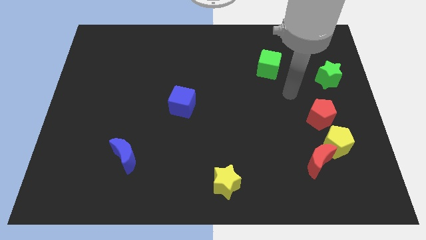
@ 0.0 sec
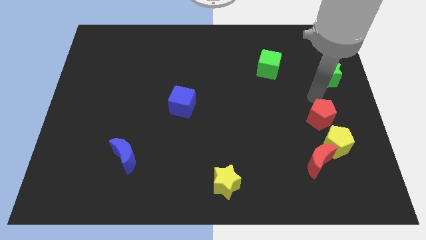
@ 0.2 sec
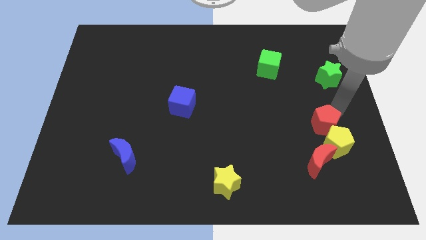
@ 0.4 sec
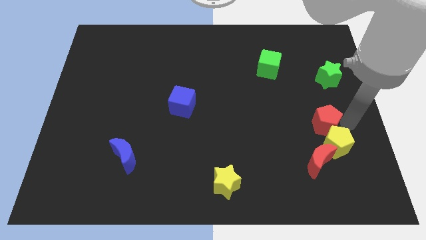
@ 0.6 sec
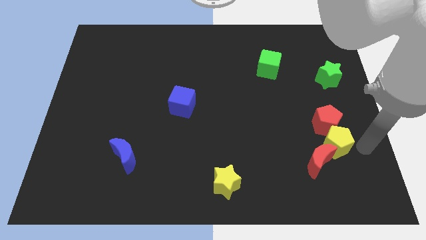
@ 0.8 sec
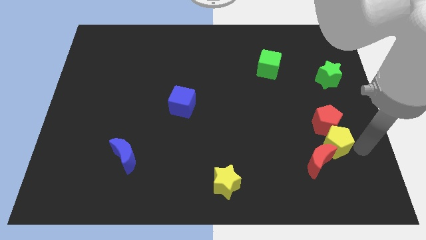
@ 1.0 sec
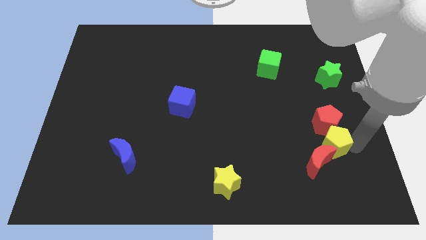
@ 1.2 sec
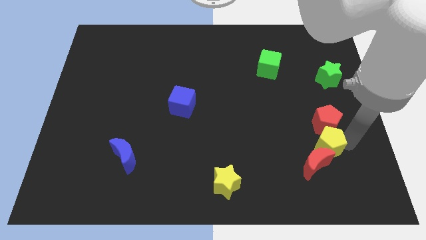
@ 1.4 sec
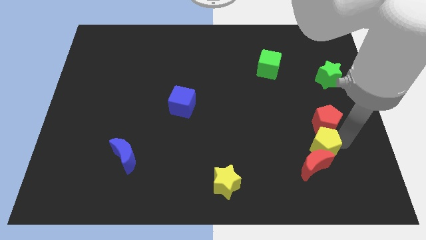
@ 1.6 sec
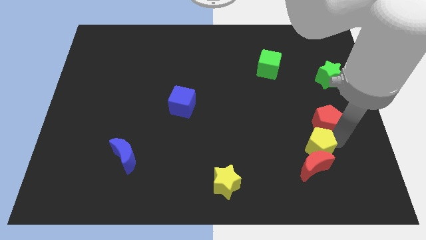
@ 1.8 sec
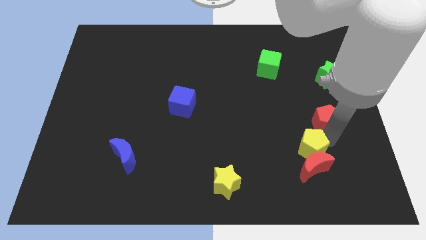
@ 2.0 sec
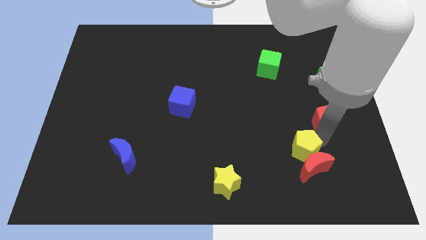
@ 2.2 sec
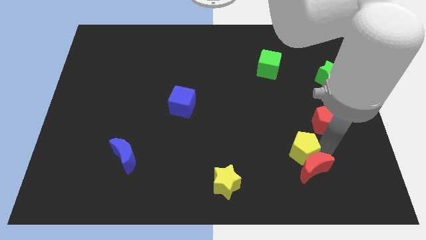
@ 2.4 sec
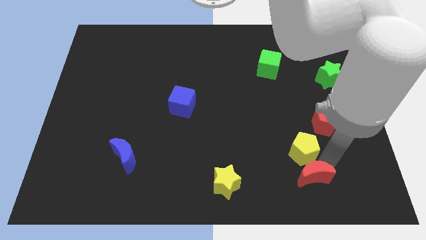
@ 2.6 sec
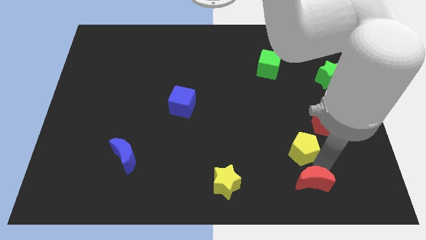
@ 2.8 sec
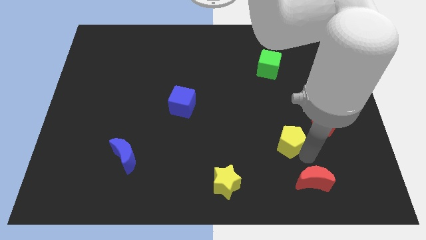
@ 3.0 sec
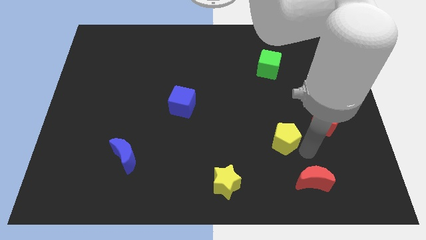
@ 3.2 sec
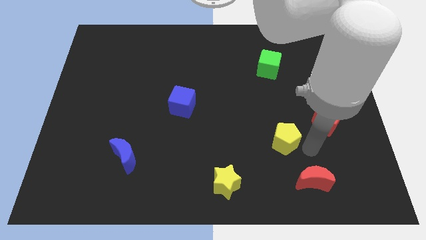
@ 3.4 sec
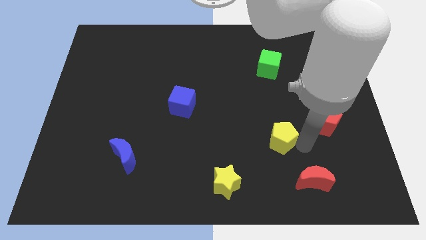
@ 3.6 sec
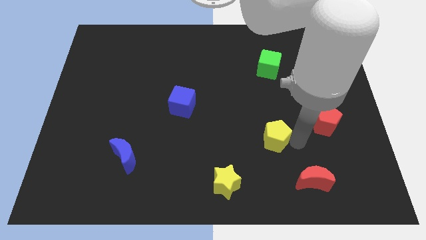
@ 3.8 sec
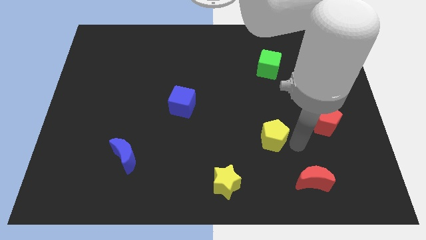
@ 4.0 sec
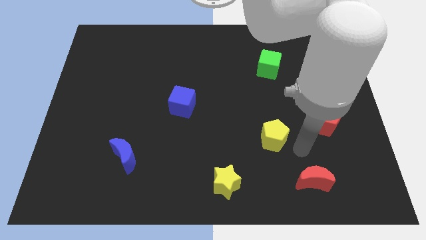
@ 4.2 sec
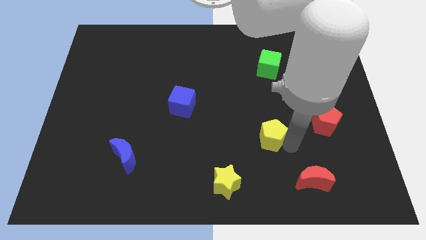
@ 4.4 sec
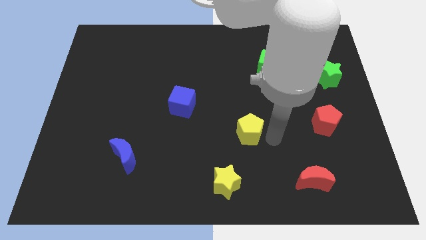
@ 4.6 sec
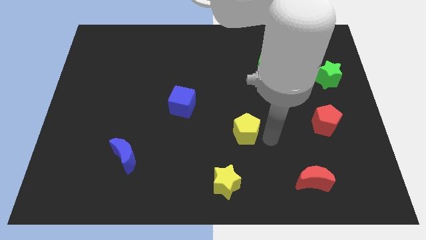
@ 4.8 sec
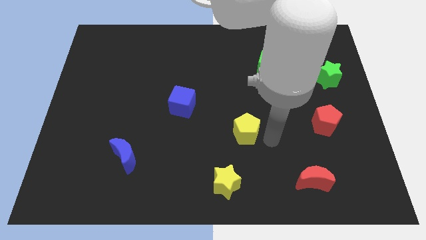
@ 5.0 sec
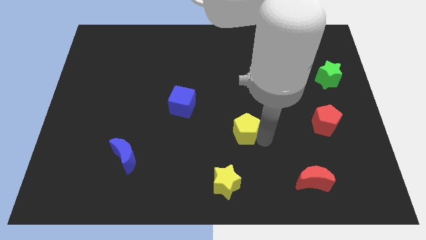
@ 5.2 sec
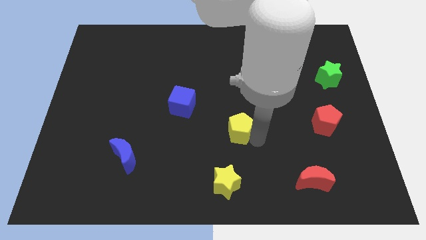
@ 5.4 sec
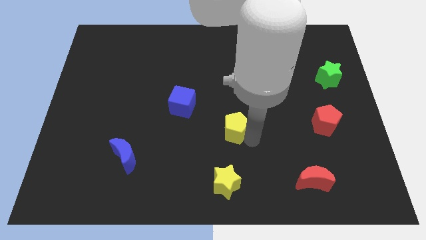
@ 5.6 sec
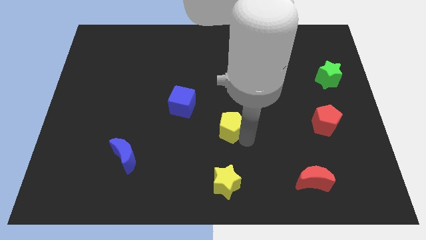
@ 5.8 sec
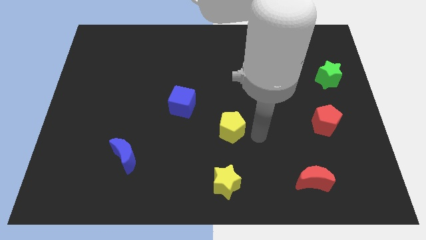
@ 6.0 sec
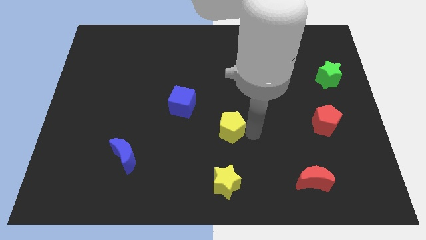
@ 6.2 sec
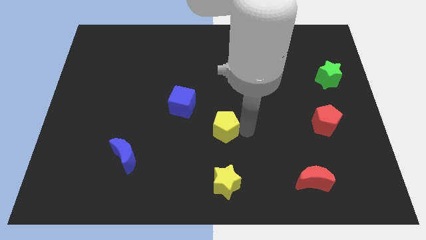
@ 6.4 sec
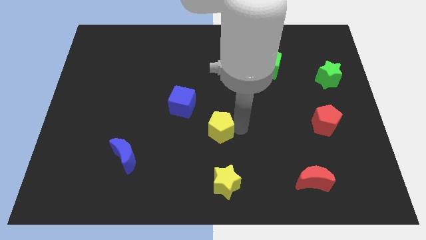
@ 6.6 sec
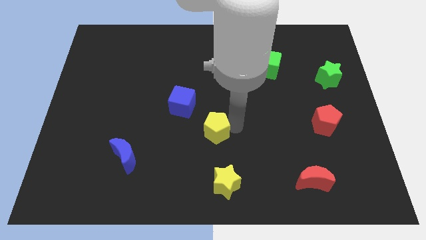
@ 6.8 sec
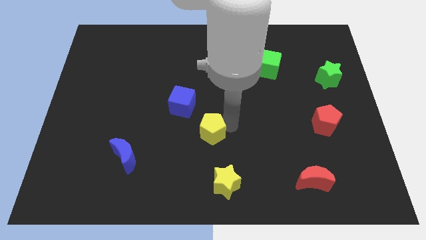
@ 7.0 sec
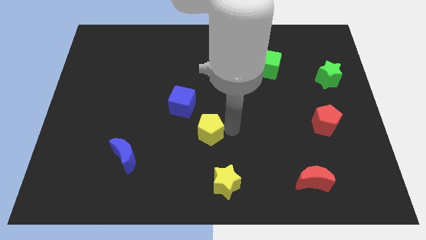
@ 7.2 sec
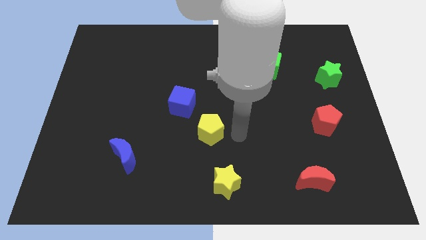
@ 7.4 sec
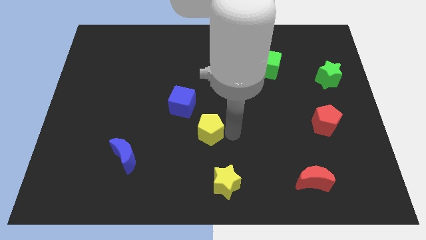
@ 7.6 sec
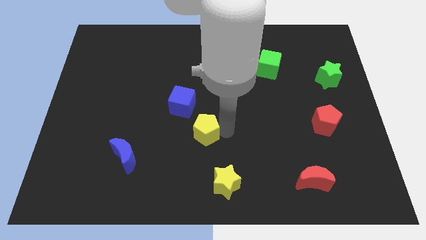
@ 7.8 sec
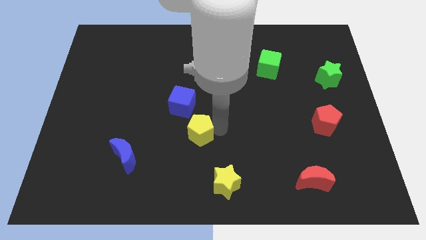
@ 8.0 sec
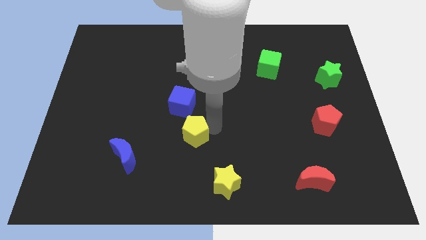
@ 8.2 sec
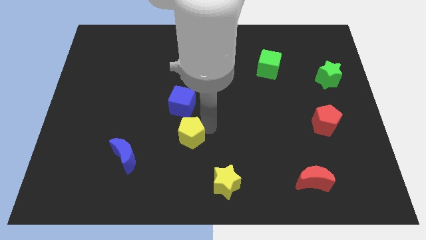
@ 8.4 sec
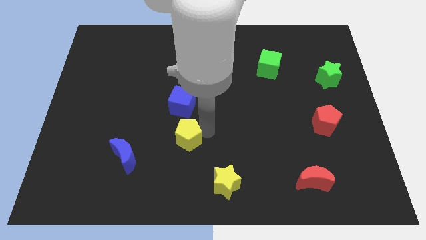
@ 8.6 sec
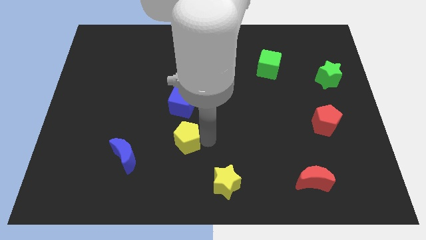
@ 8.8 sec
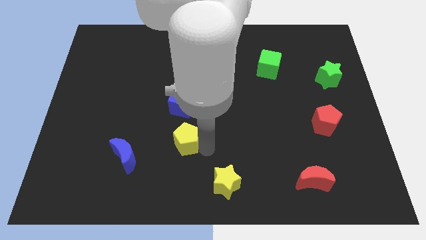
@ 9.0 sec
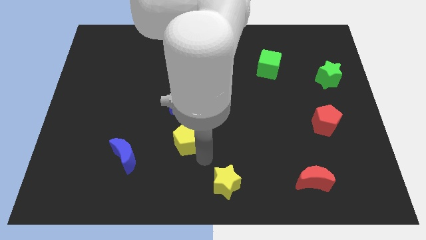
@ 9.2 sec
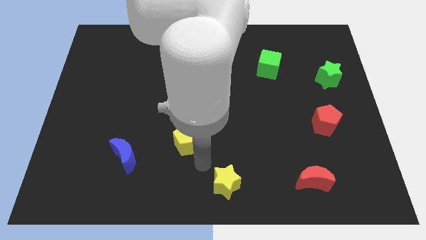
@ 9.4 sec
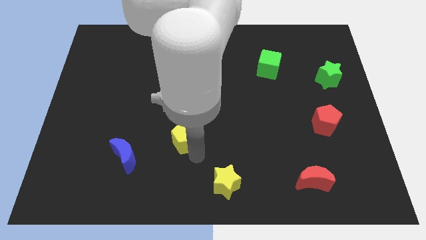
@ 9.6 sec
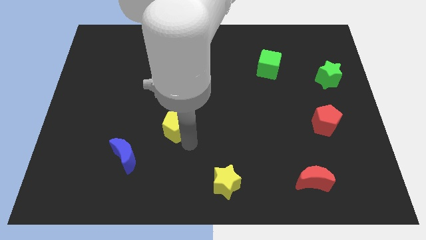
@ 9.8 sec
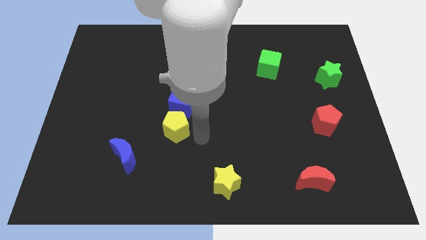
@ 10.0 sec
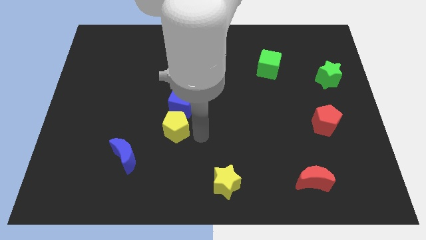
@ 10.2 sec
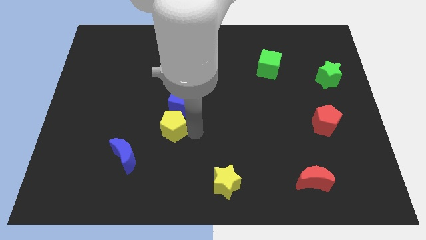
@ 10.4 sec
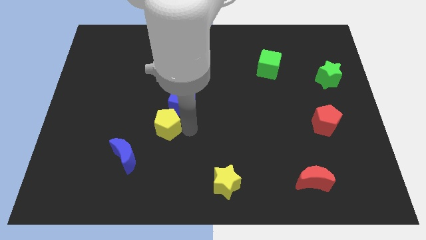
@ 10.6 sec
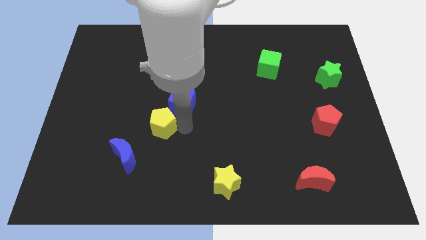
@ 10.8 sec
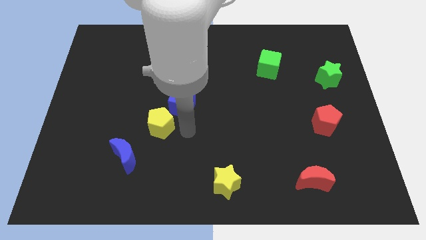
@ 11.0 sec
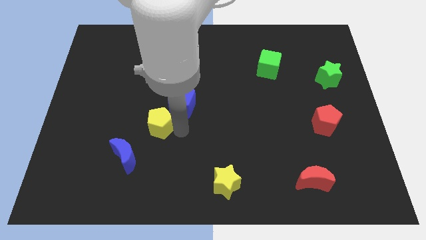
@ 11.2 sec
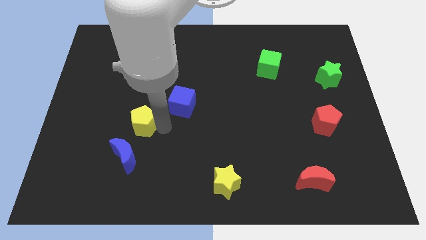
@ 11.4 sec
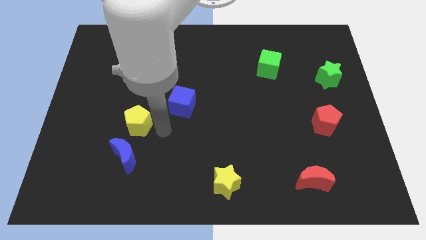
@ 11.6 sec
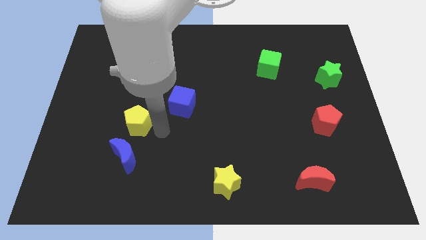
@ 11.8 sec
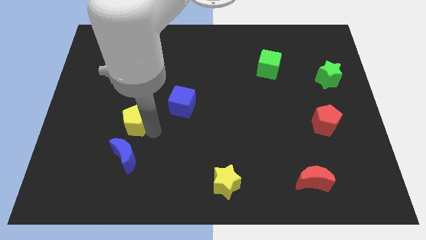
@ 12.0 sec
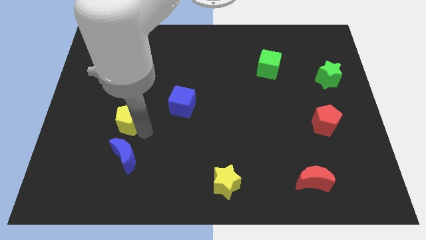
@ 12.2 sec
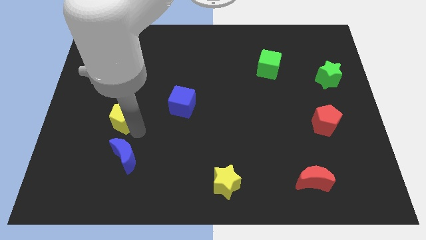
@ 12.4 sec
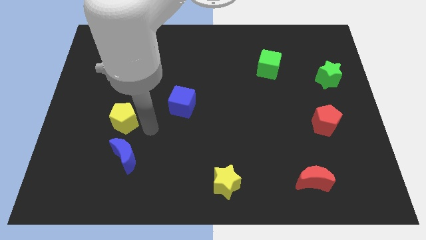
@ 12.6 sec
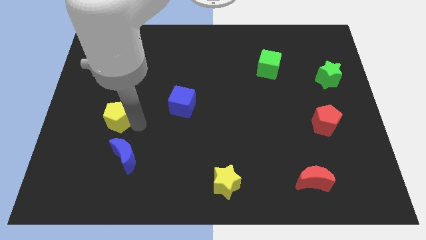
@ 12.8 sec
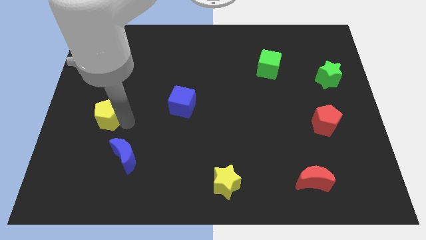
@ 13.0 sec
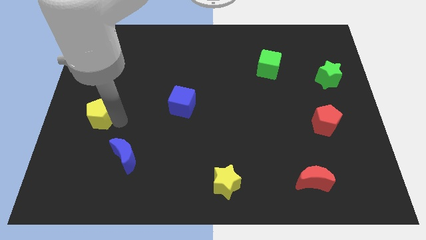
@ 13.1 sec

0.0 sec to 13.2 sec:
slide the yellow pentagon to the left side of the board
